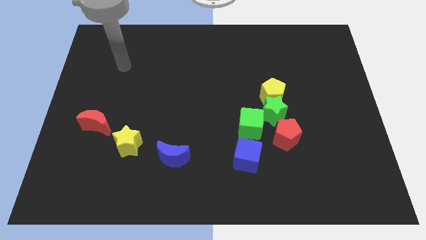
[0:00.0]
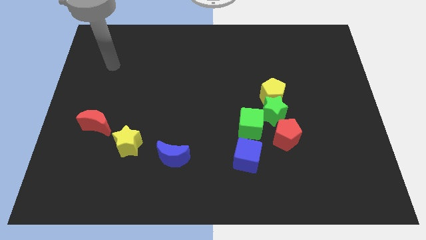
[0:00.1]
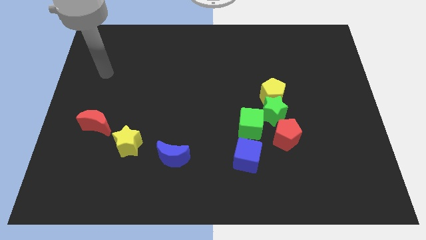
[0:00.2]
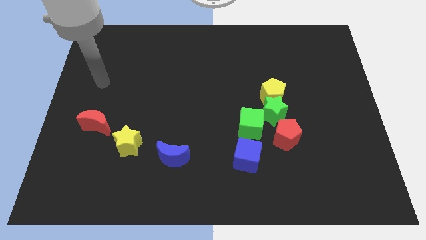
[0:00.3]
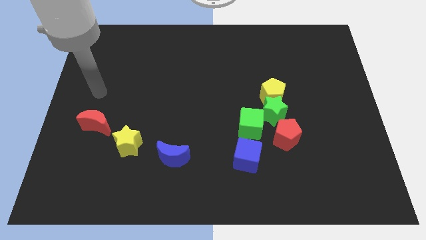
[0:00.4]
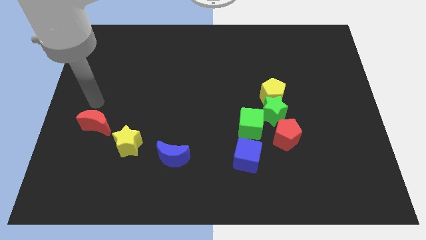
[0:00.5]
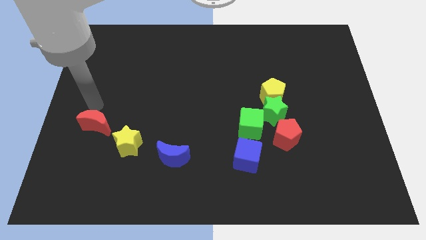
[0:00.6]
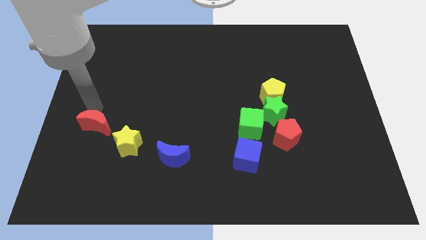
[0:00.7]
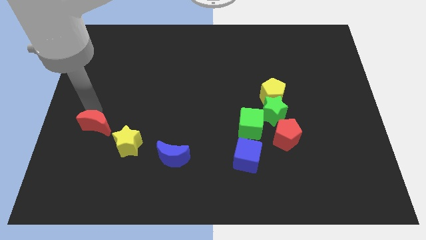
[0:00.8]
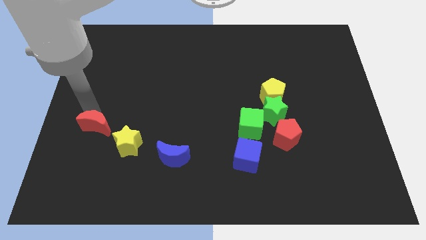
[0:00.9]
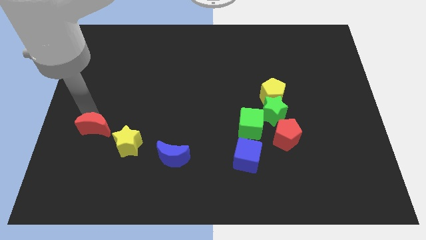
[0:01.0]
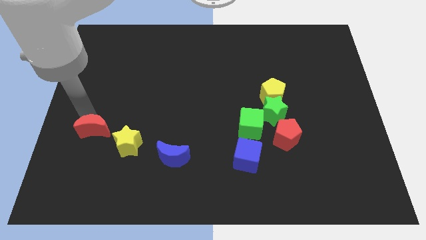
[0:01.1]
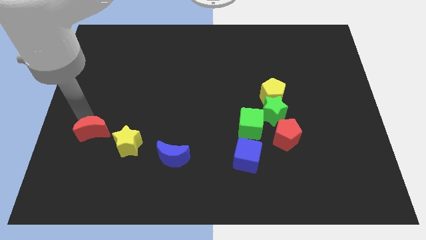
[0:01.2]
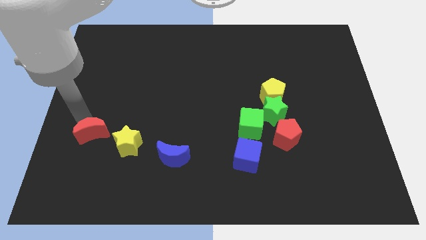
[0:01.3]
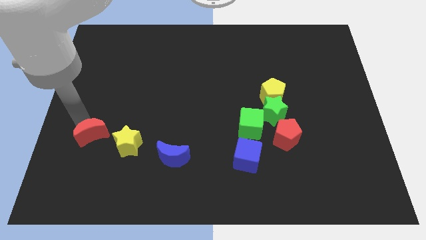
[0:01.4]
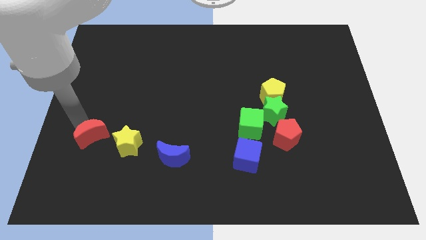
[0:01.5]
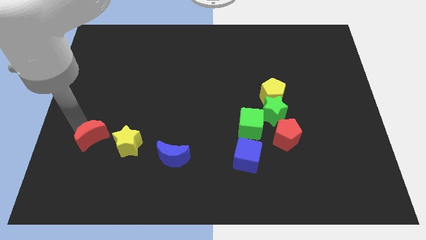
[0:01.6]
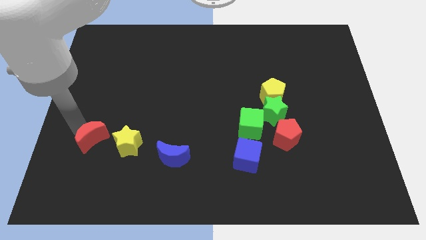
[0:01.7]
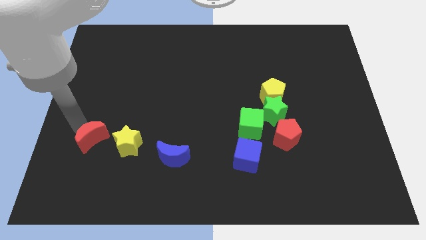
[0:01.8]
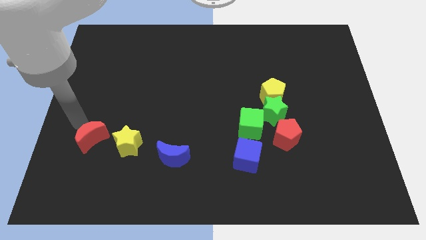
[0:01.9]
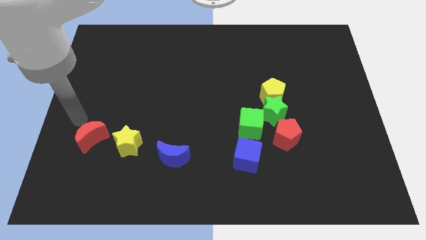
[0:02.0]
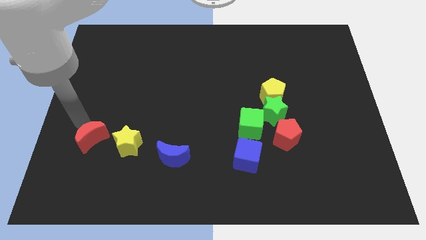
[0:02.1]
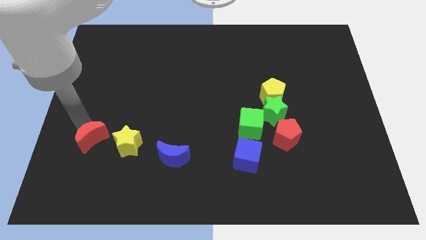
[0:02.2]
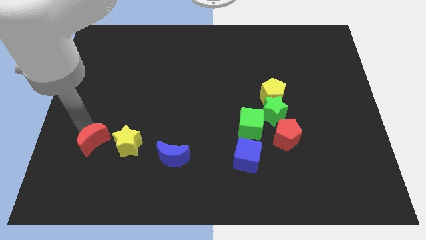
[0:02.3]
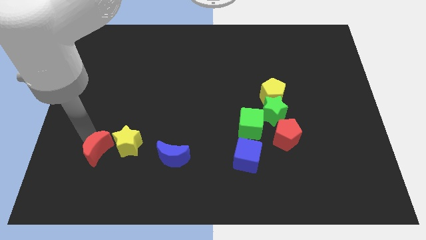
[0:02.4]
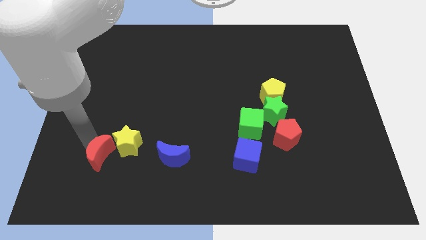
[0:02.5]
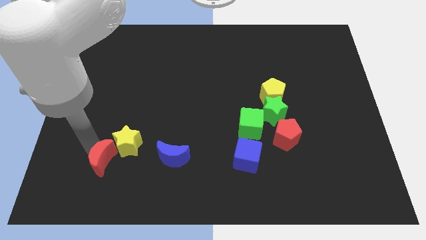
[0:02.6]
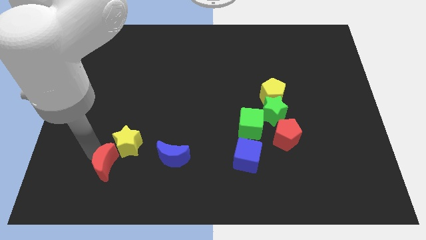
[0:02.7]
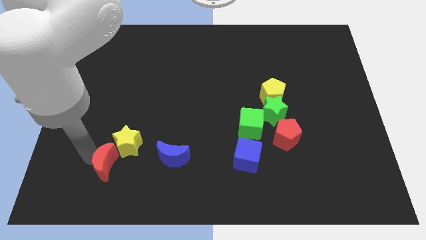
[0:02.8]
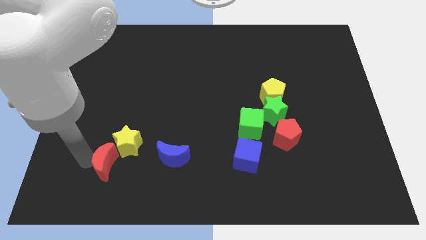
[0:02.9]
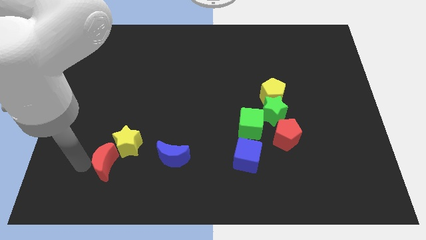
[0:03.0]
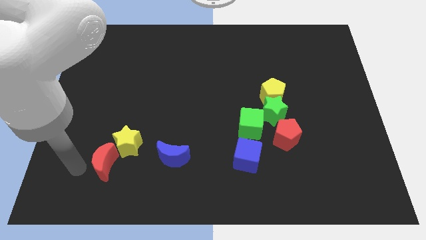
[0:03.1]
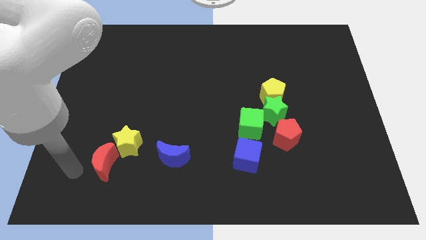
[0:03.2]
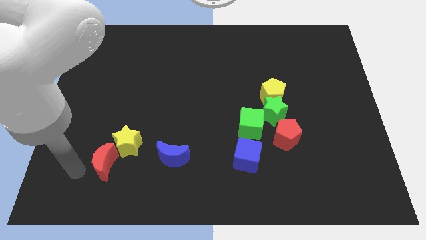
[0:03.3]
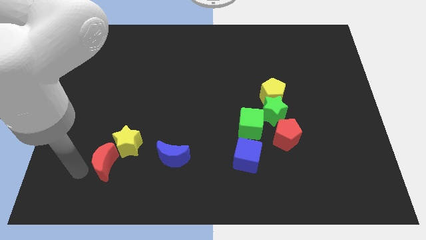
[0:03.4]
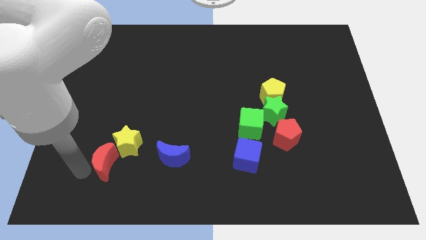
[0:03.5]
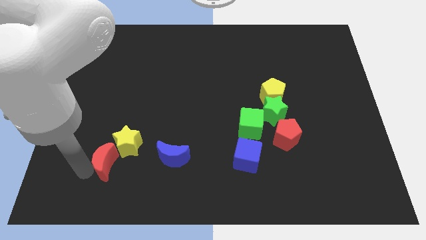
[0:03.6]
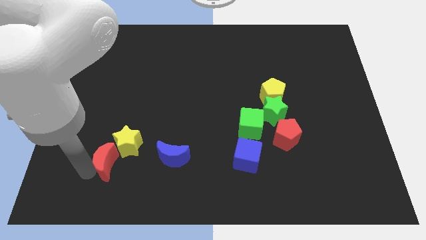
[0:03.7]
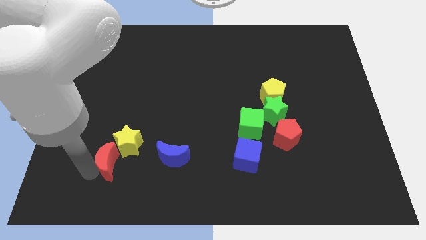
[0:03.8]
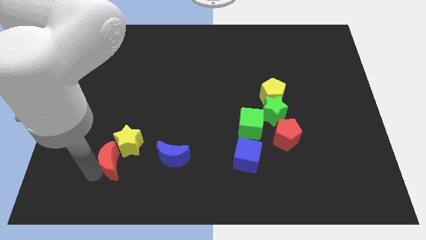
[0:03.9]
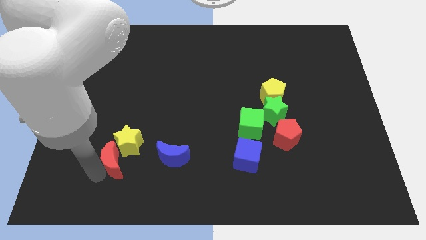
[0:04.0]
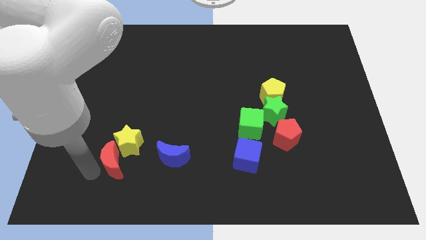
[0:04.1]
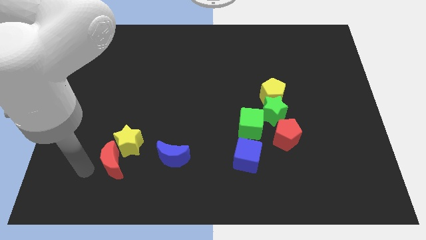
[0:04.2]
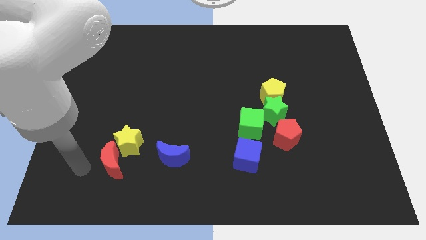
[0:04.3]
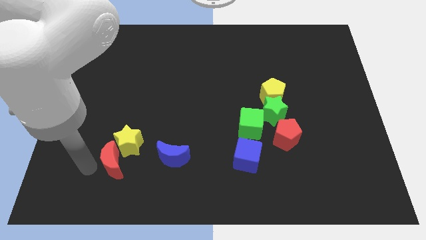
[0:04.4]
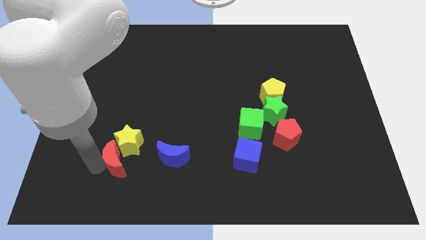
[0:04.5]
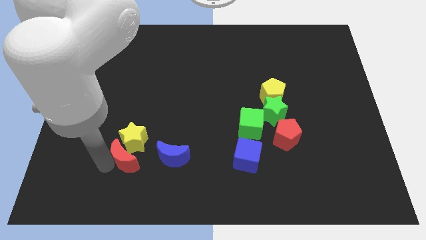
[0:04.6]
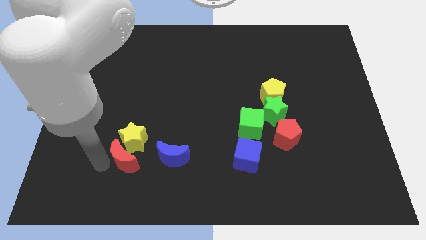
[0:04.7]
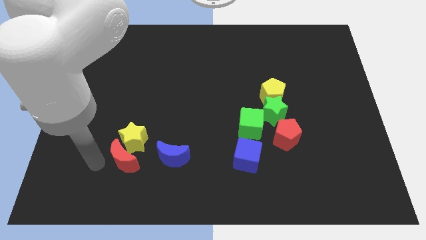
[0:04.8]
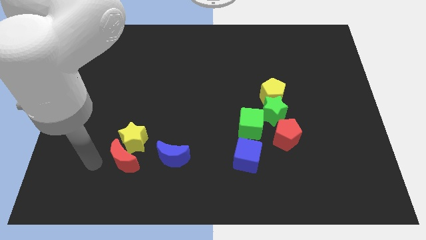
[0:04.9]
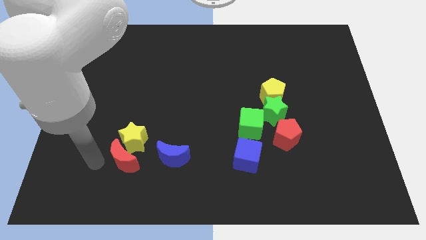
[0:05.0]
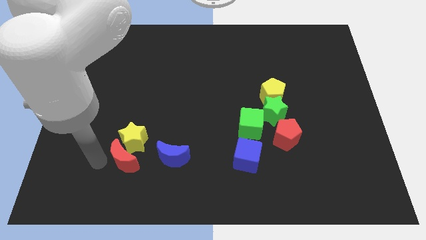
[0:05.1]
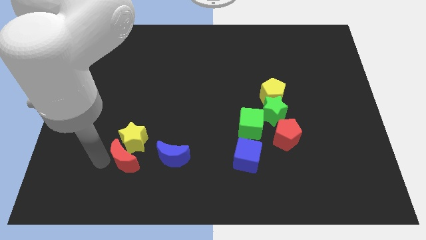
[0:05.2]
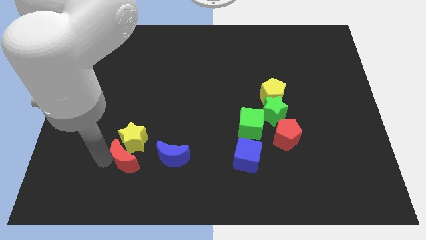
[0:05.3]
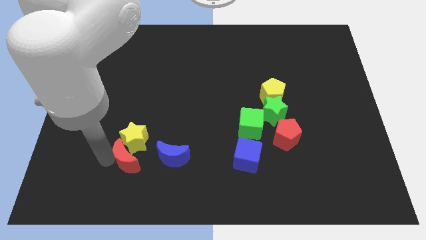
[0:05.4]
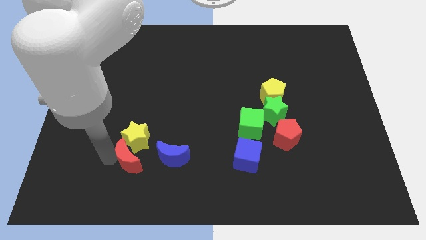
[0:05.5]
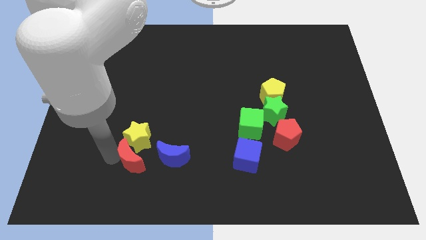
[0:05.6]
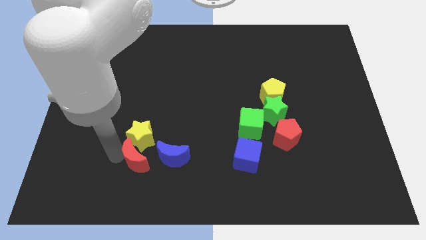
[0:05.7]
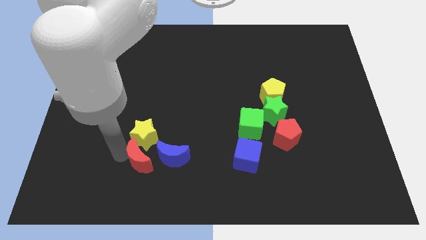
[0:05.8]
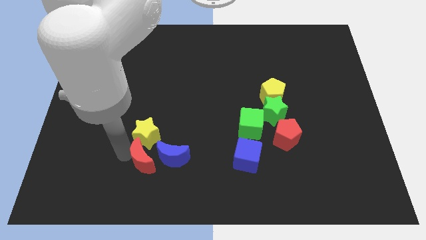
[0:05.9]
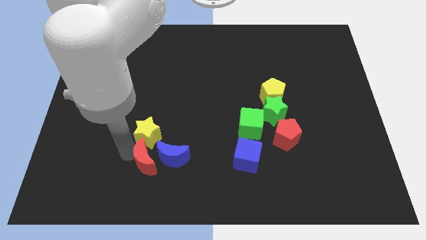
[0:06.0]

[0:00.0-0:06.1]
push the red moon towards the blue moon

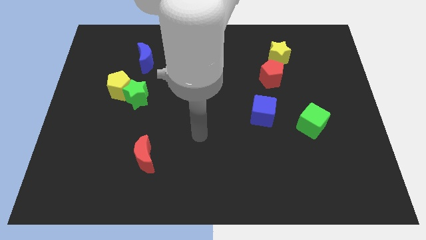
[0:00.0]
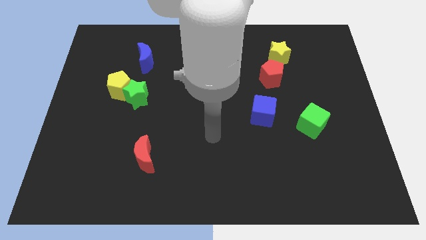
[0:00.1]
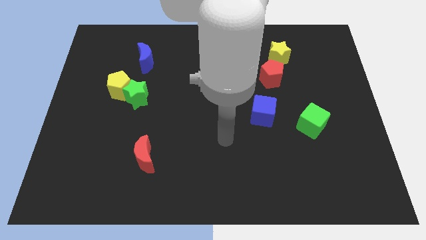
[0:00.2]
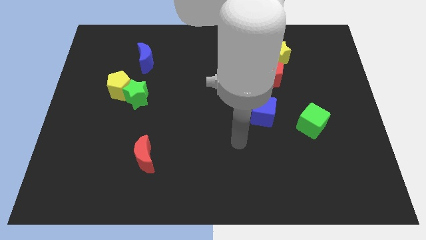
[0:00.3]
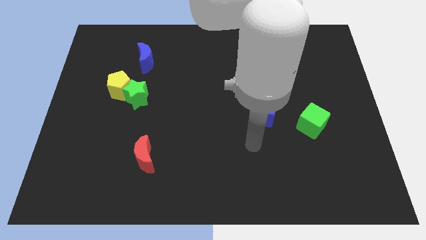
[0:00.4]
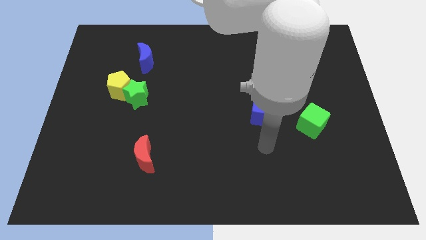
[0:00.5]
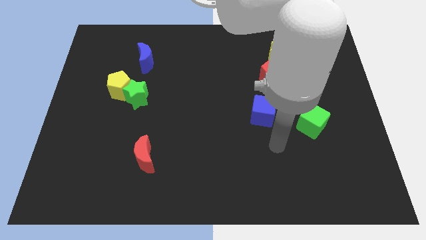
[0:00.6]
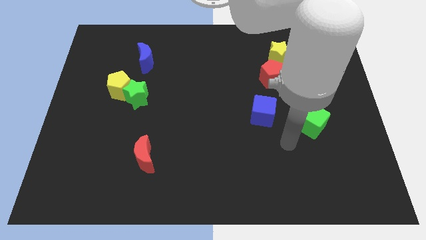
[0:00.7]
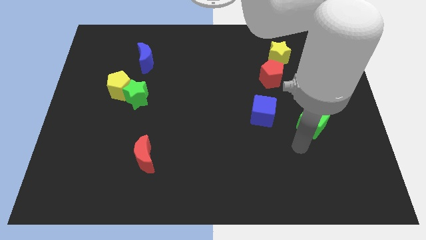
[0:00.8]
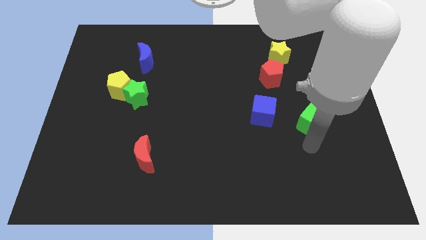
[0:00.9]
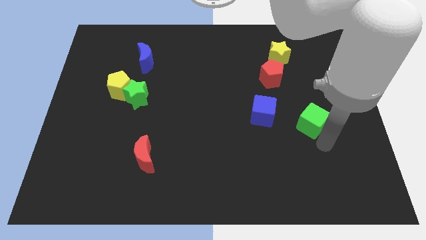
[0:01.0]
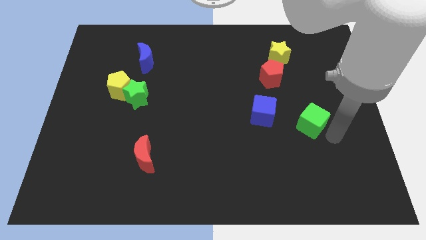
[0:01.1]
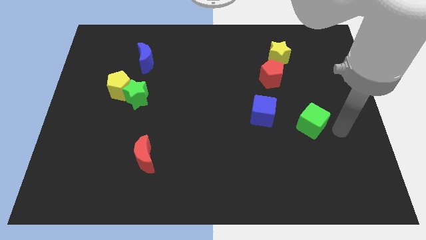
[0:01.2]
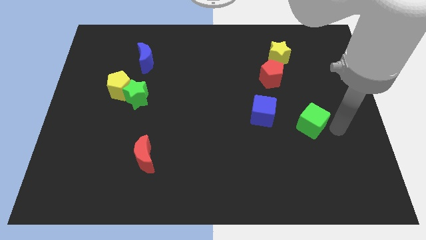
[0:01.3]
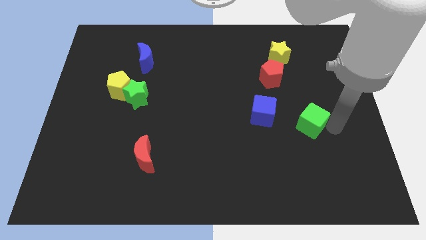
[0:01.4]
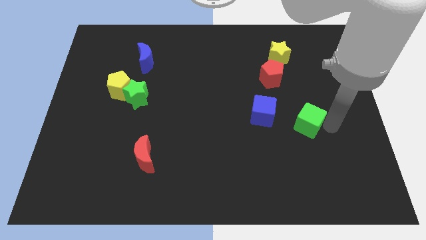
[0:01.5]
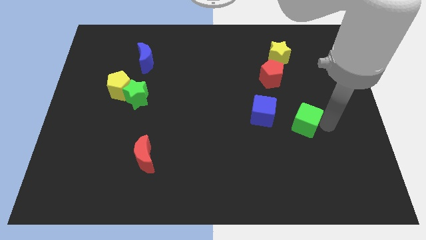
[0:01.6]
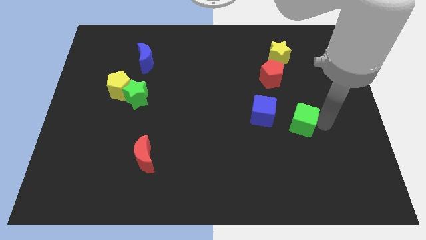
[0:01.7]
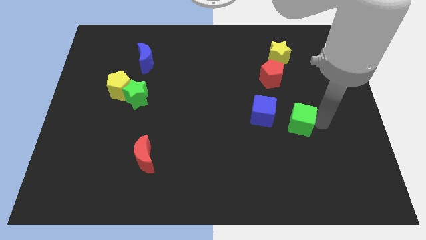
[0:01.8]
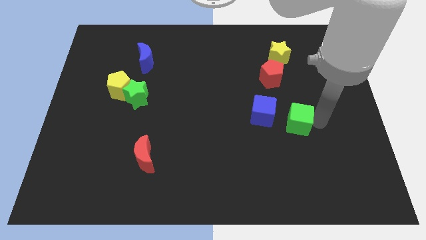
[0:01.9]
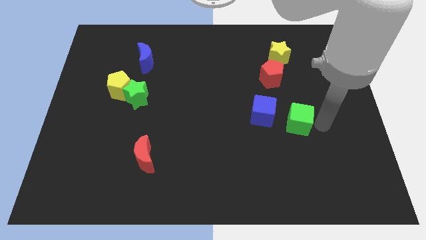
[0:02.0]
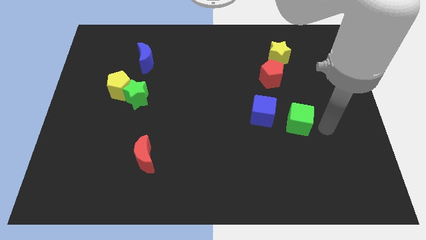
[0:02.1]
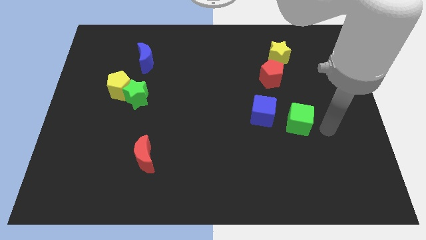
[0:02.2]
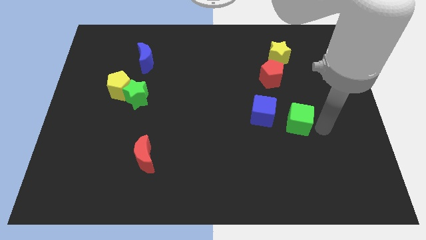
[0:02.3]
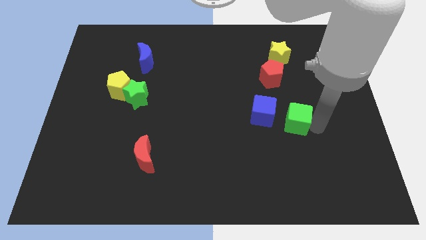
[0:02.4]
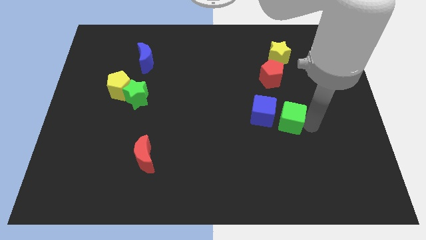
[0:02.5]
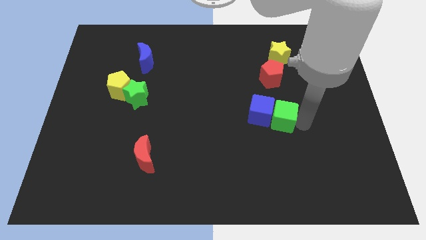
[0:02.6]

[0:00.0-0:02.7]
put the green cube close to the blue cube
